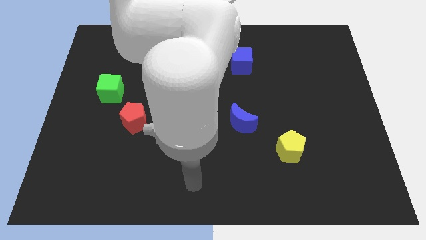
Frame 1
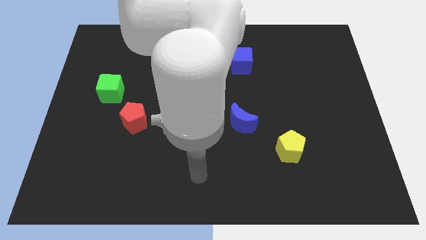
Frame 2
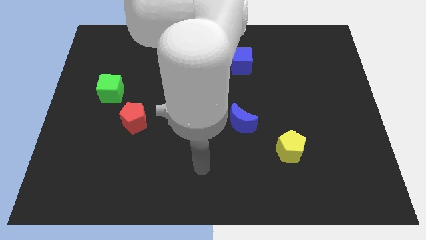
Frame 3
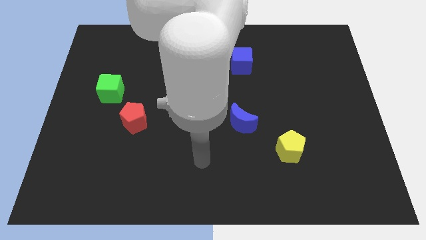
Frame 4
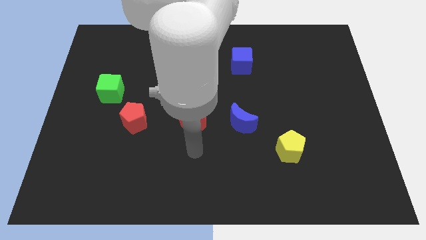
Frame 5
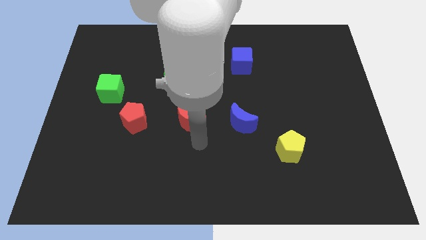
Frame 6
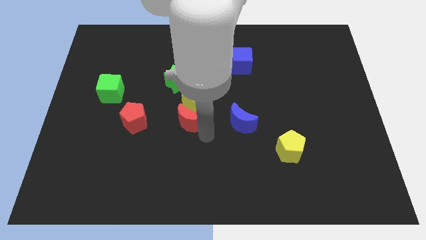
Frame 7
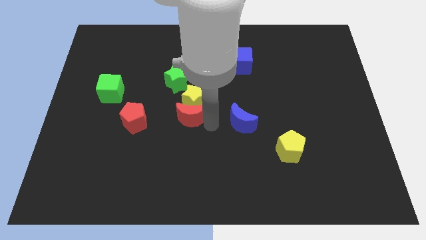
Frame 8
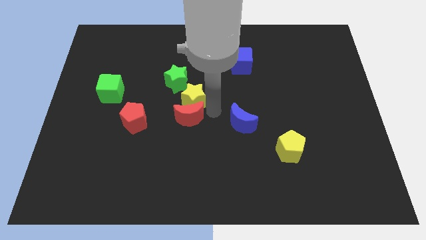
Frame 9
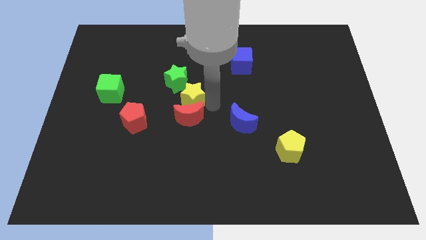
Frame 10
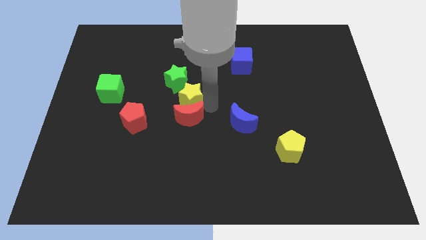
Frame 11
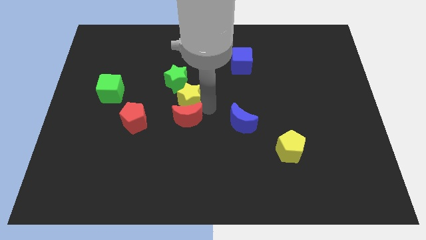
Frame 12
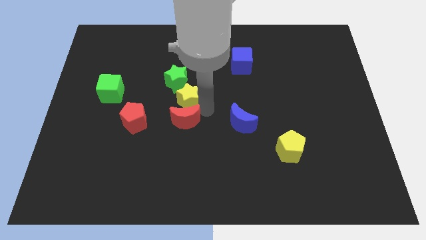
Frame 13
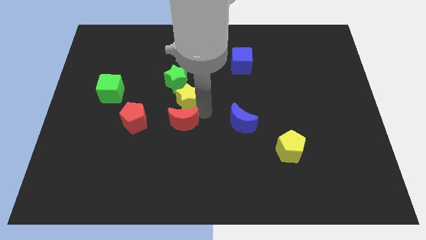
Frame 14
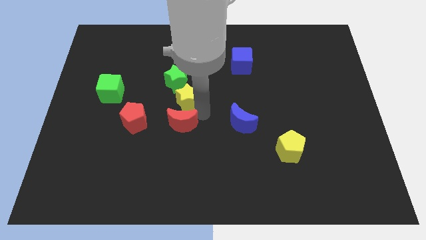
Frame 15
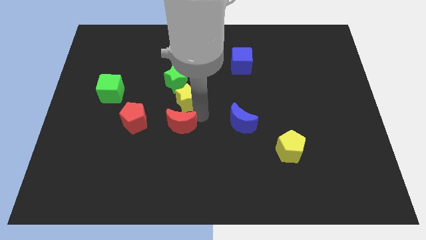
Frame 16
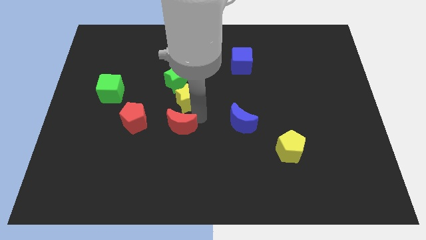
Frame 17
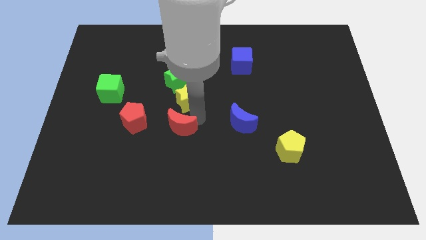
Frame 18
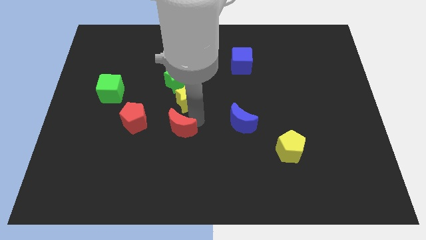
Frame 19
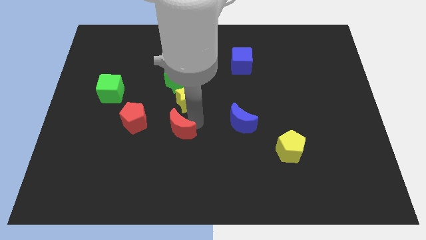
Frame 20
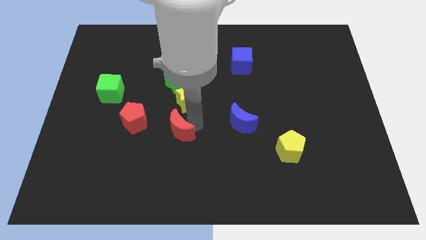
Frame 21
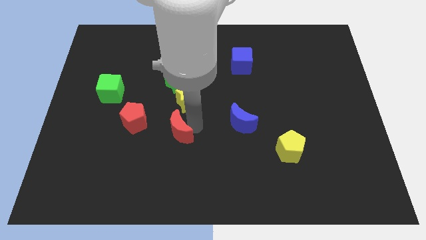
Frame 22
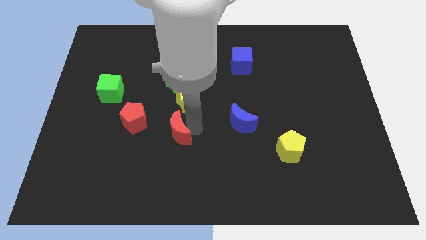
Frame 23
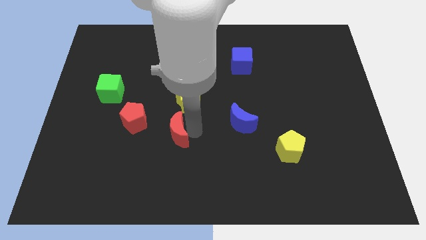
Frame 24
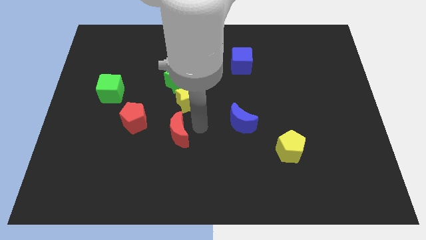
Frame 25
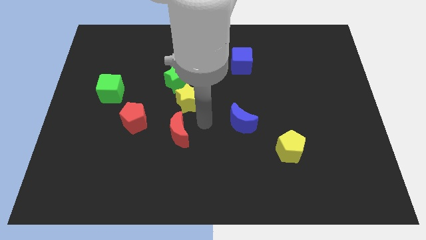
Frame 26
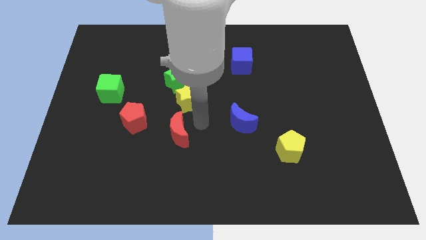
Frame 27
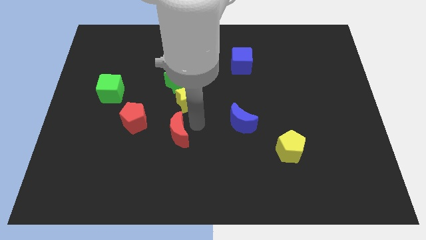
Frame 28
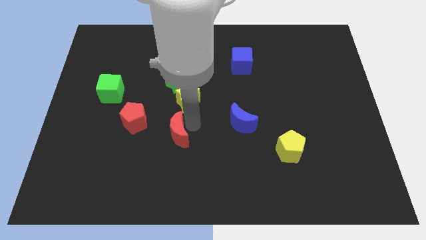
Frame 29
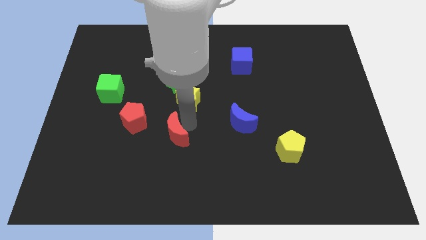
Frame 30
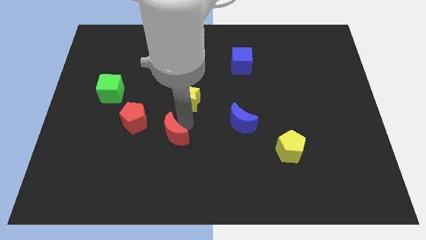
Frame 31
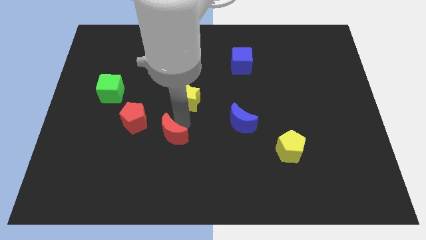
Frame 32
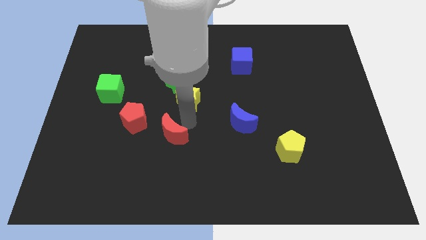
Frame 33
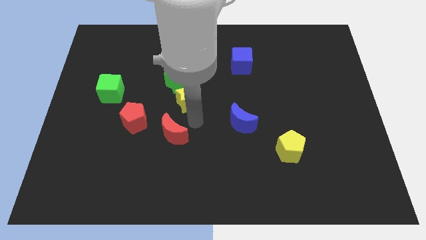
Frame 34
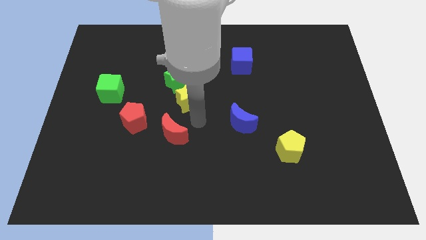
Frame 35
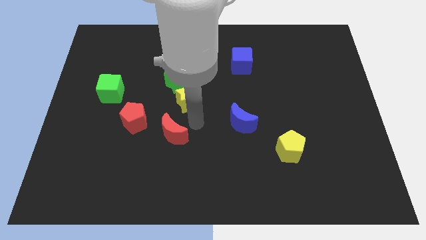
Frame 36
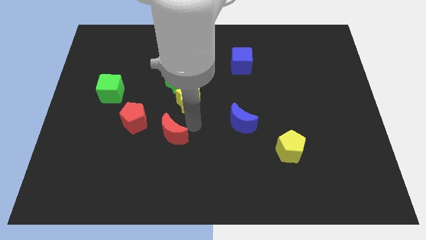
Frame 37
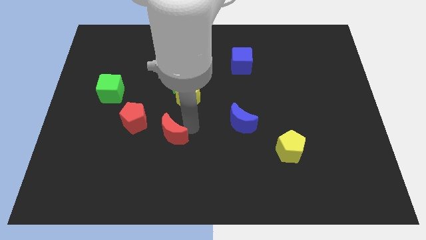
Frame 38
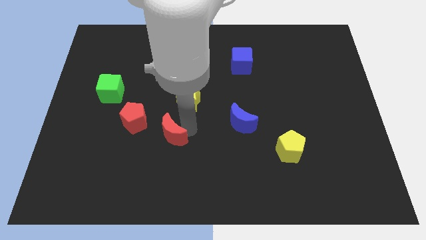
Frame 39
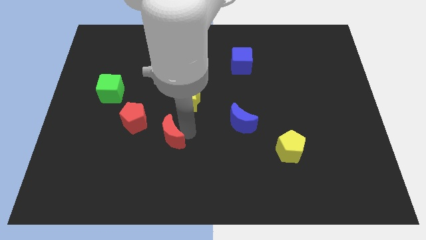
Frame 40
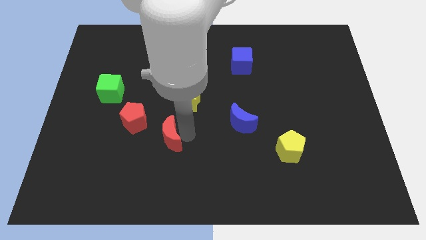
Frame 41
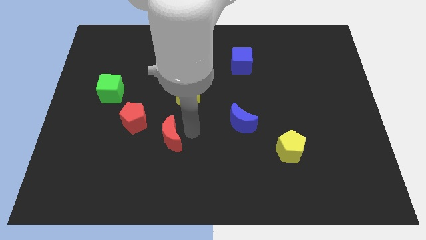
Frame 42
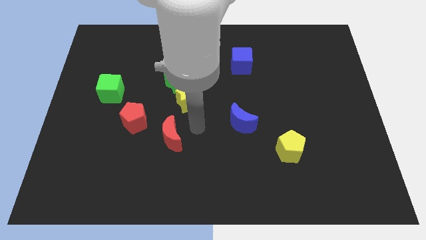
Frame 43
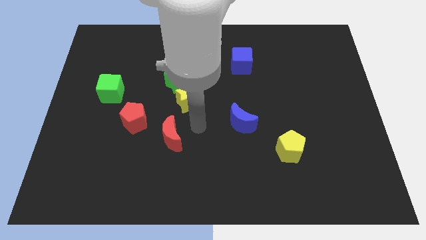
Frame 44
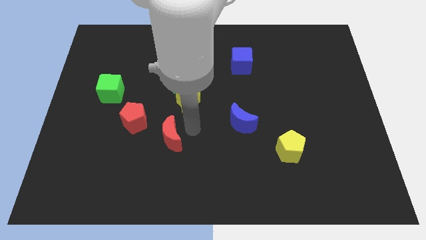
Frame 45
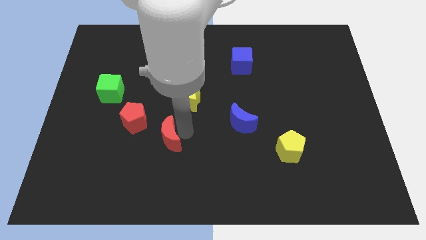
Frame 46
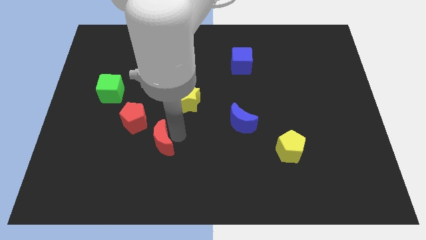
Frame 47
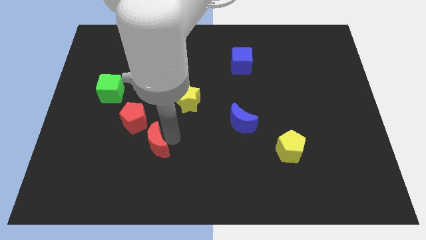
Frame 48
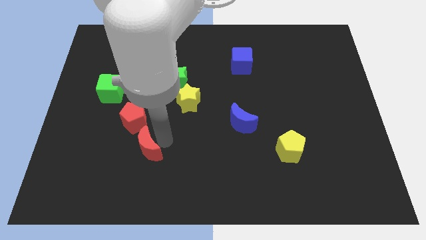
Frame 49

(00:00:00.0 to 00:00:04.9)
push the red moon below the red pentagon

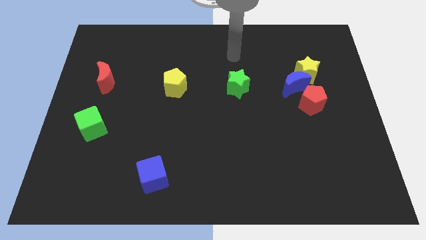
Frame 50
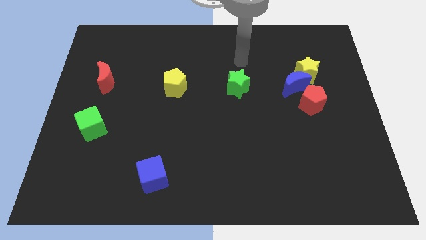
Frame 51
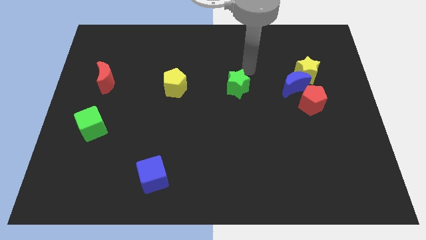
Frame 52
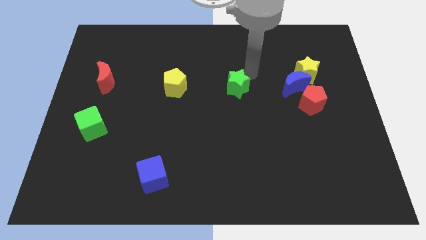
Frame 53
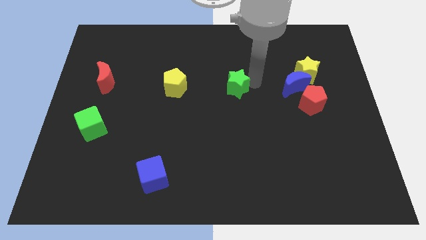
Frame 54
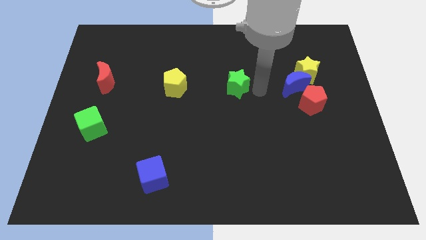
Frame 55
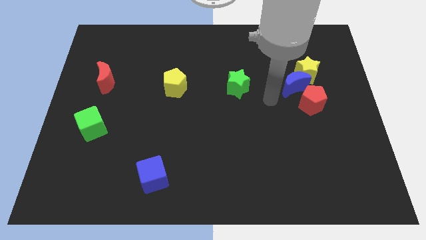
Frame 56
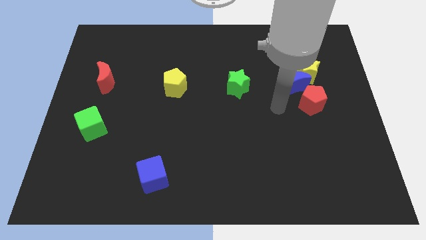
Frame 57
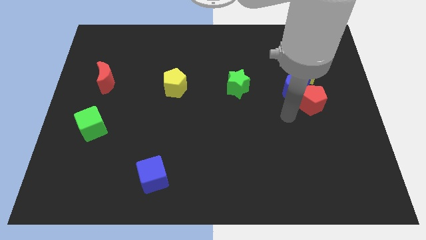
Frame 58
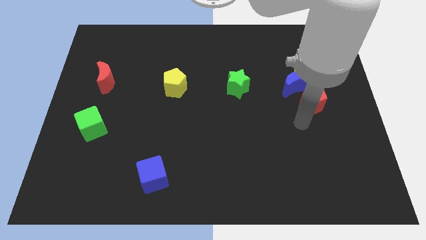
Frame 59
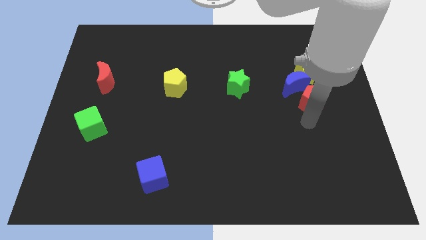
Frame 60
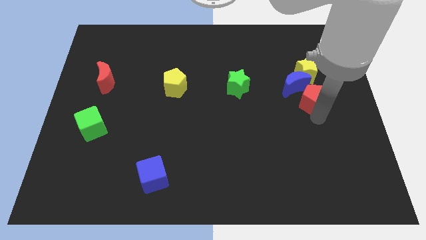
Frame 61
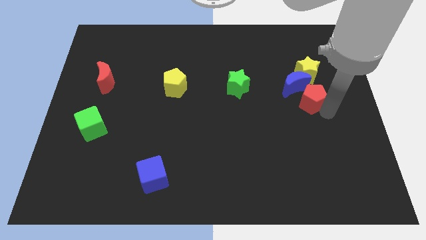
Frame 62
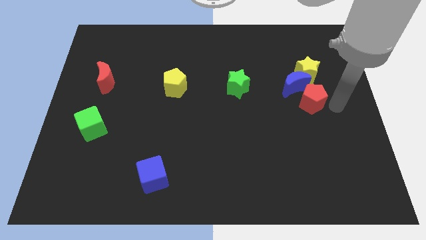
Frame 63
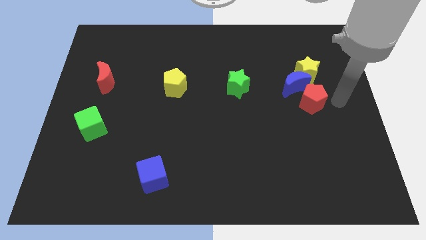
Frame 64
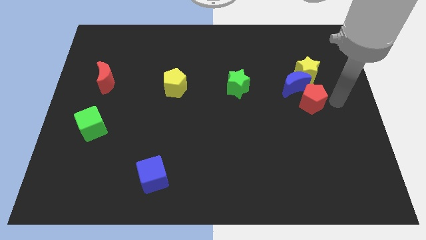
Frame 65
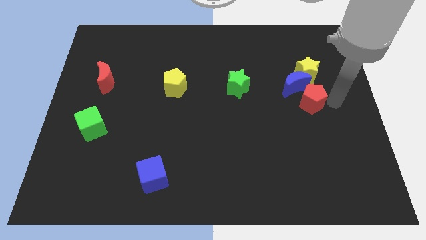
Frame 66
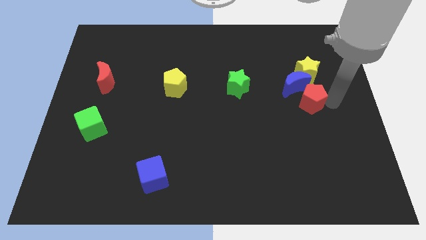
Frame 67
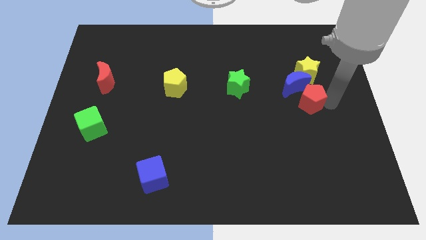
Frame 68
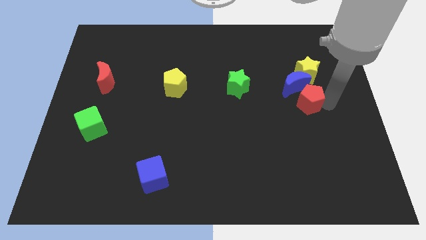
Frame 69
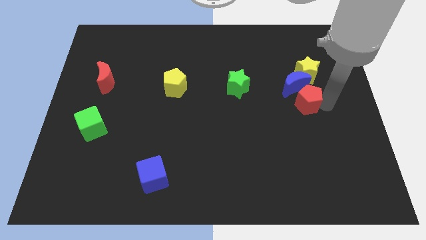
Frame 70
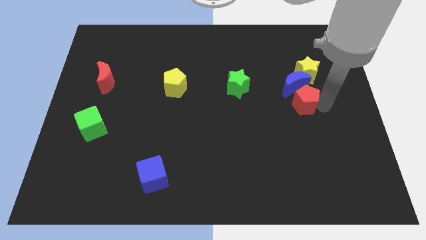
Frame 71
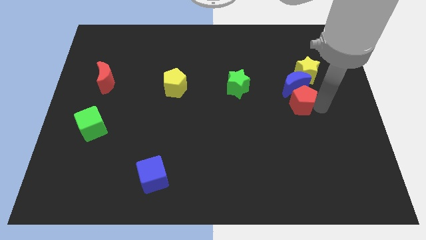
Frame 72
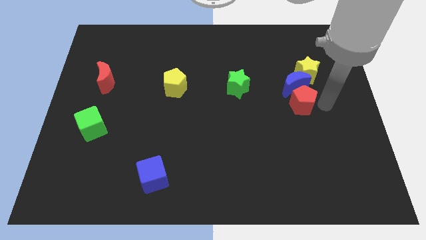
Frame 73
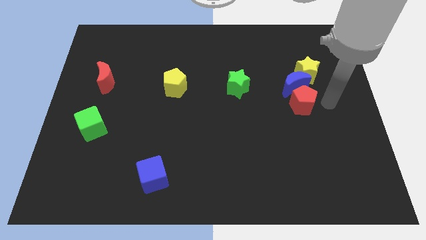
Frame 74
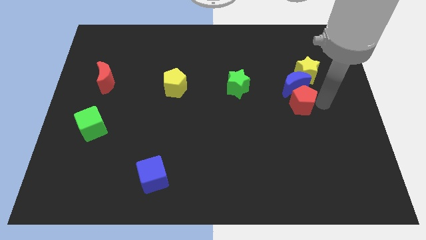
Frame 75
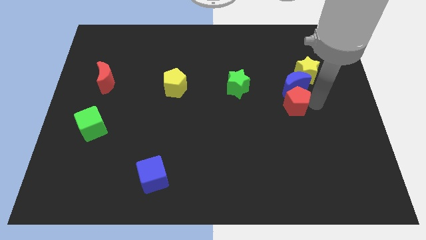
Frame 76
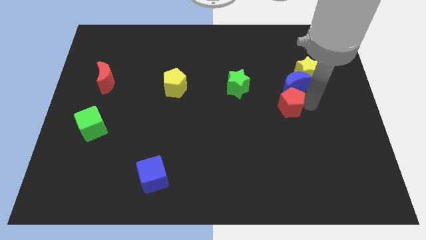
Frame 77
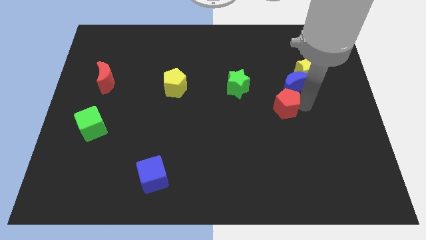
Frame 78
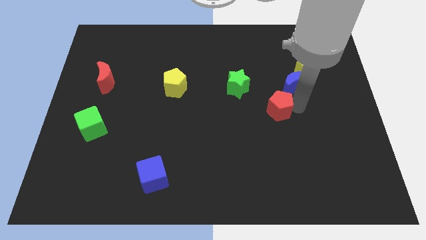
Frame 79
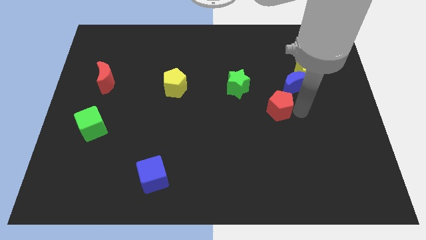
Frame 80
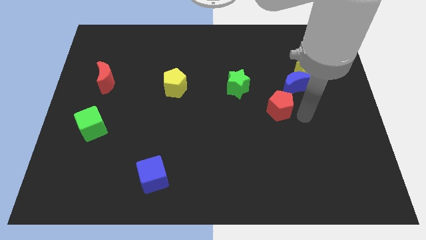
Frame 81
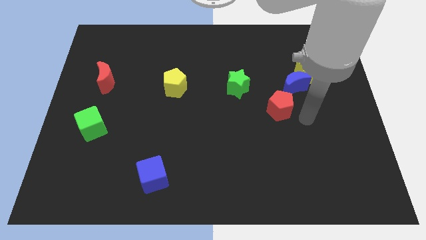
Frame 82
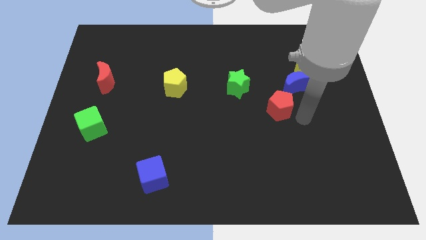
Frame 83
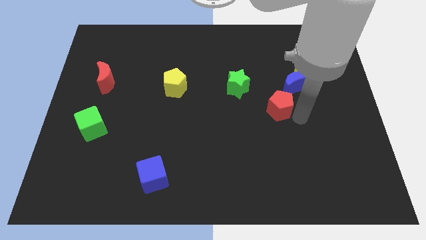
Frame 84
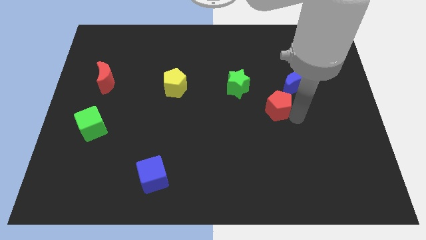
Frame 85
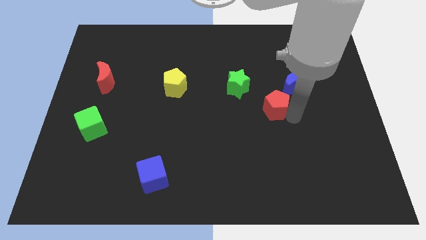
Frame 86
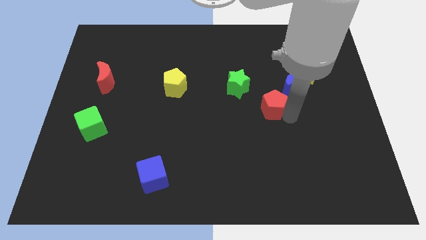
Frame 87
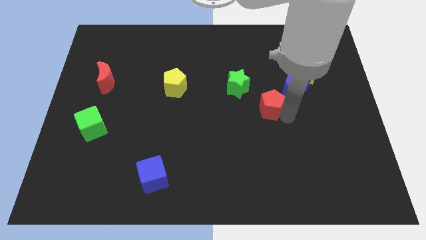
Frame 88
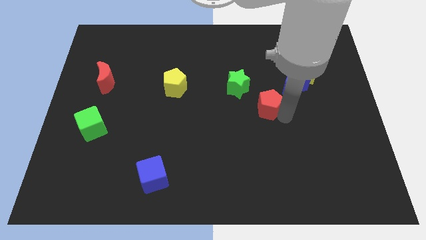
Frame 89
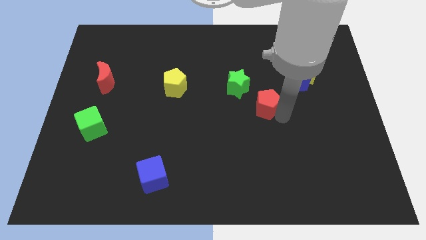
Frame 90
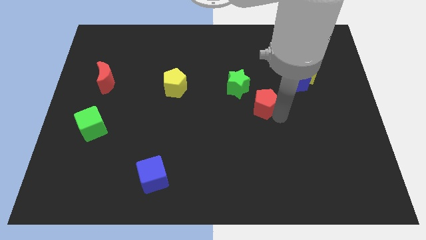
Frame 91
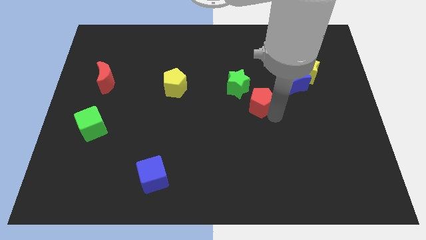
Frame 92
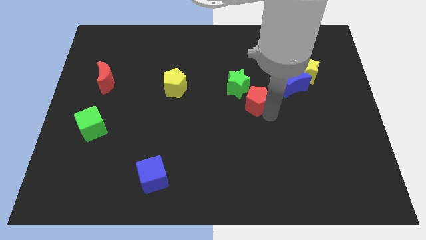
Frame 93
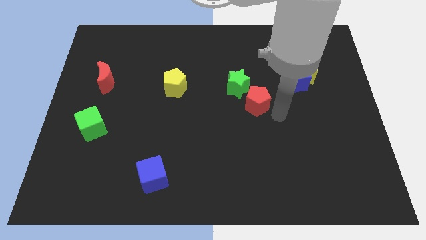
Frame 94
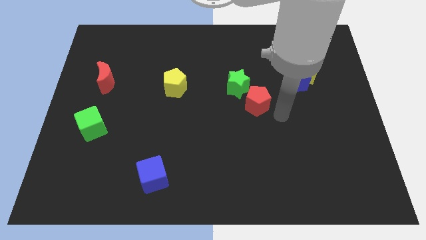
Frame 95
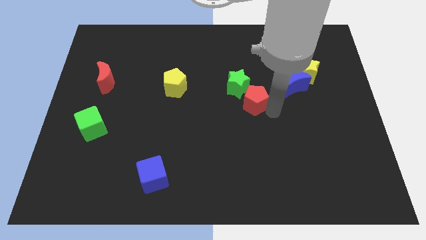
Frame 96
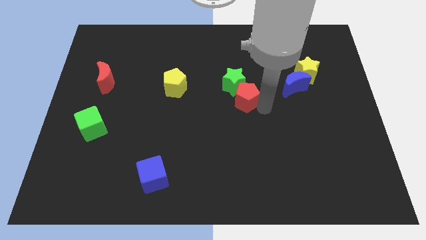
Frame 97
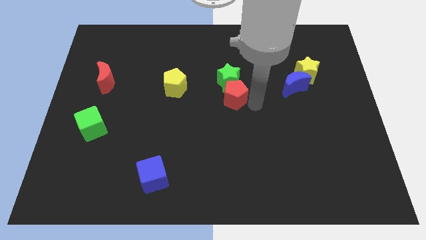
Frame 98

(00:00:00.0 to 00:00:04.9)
move the red pentagon just right of the yellow pentagon
